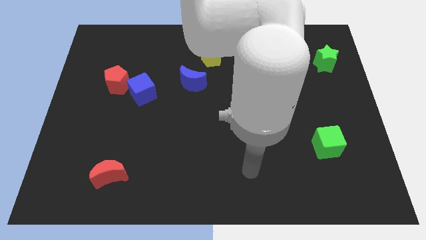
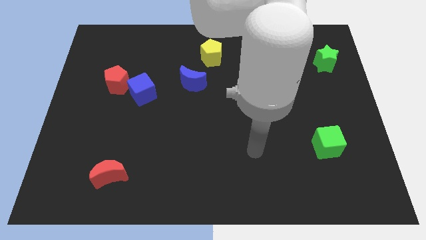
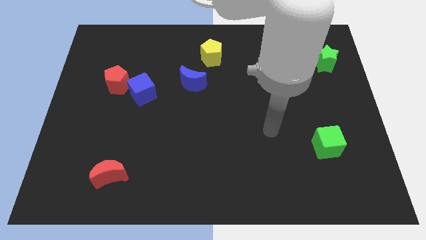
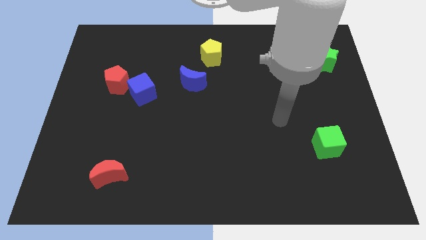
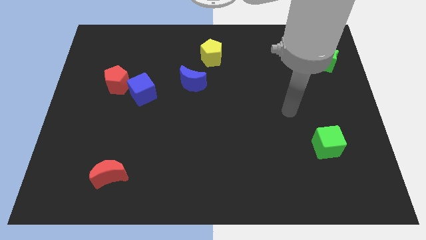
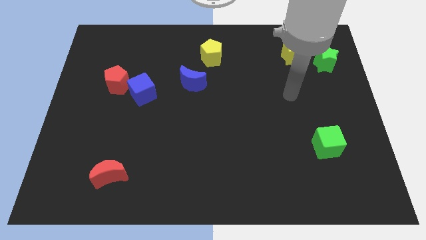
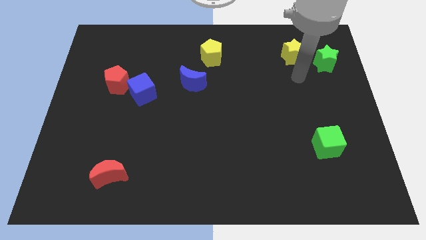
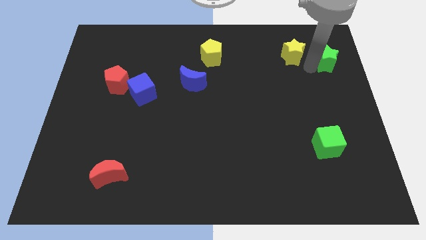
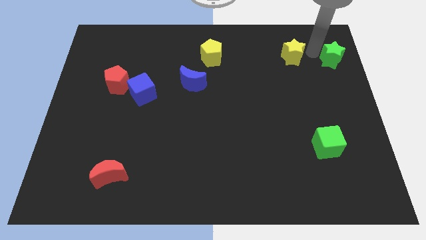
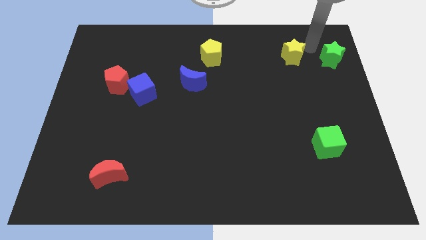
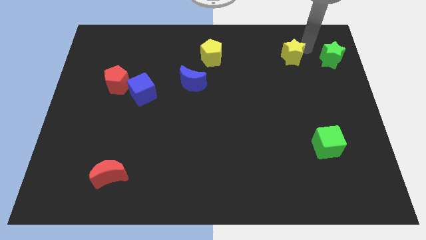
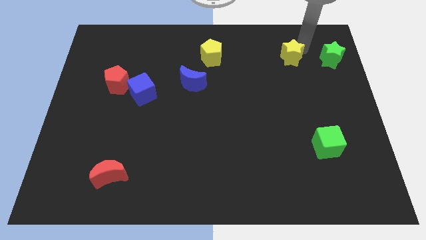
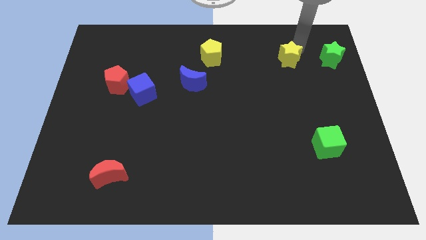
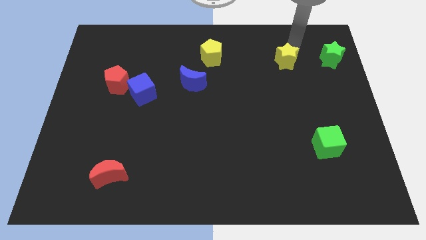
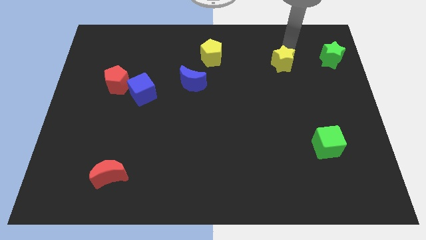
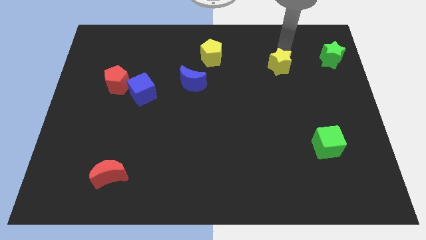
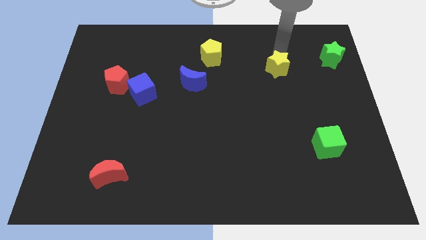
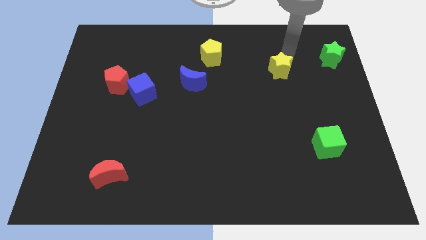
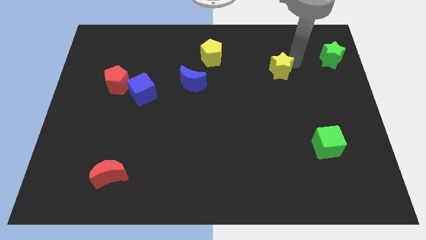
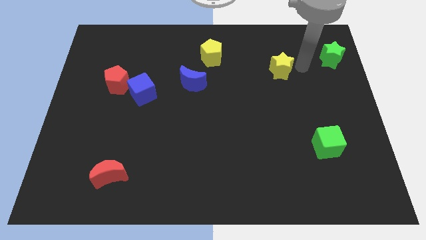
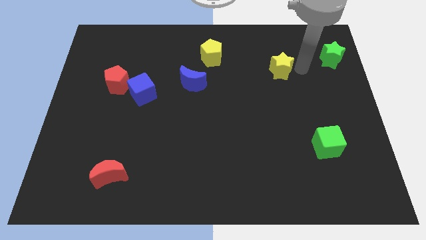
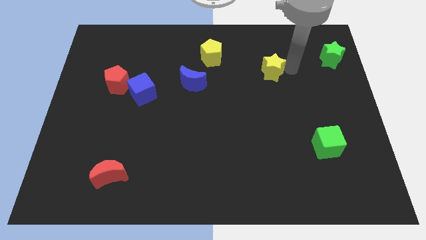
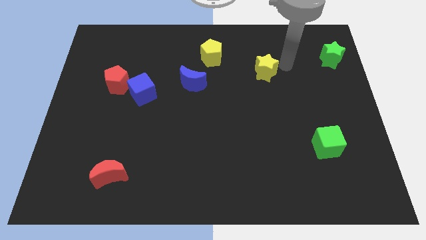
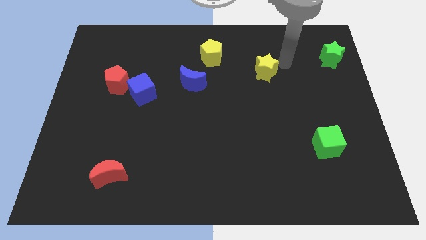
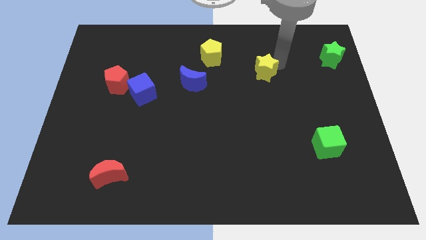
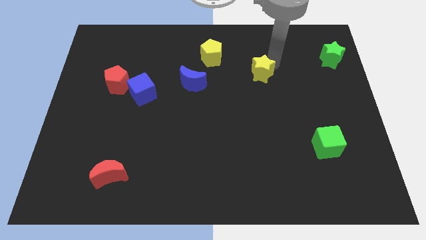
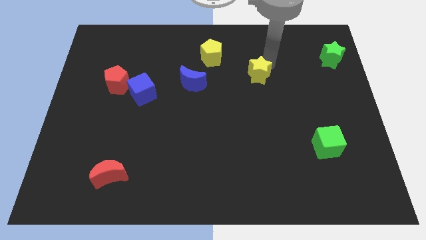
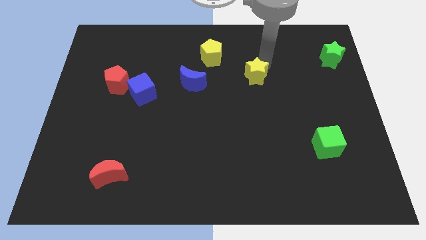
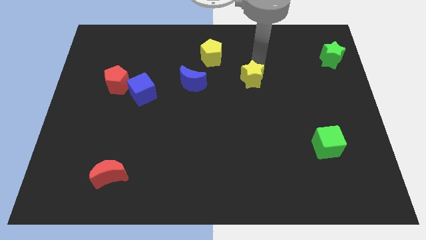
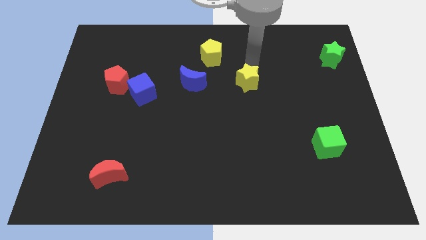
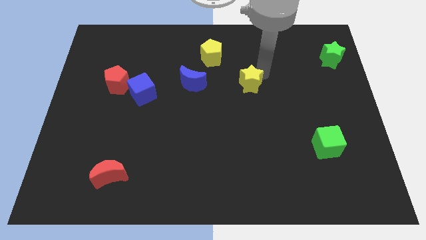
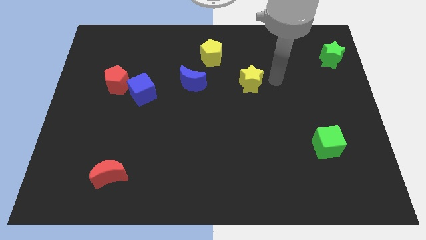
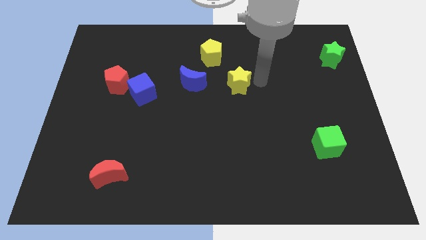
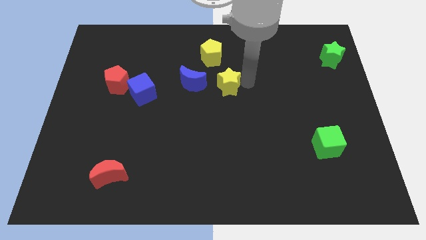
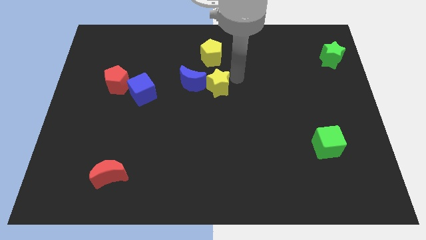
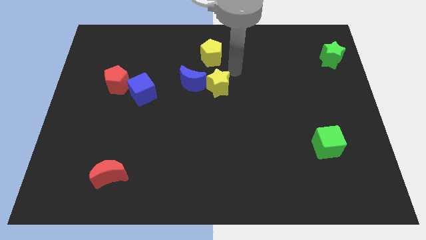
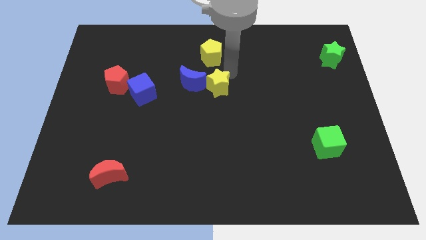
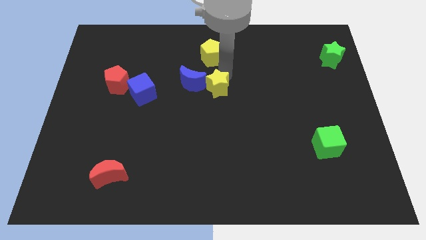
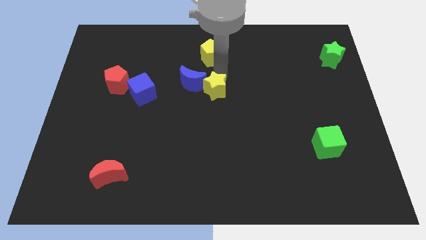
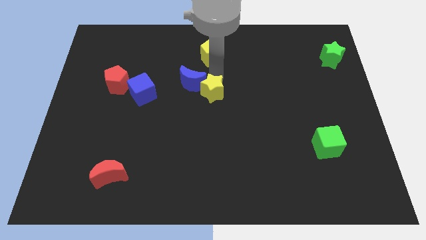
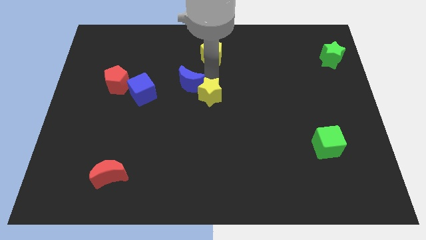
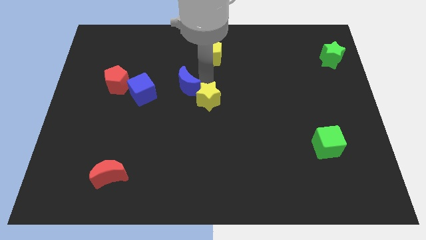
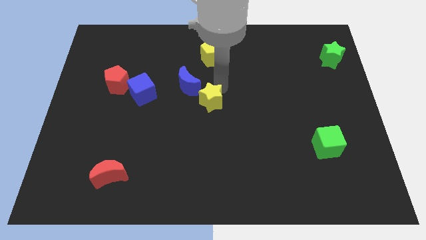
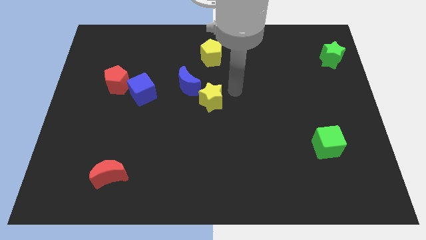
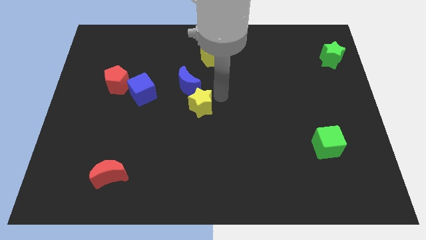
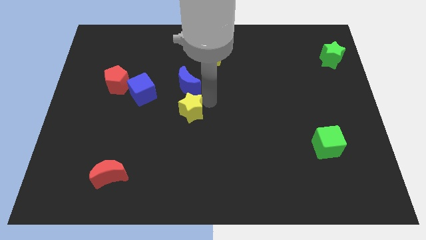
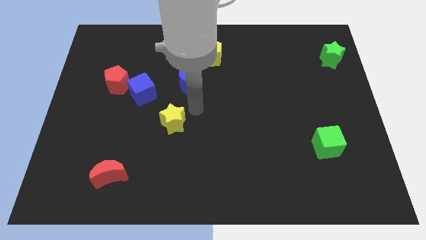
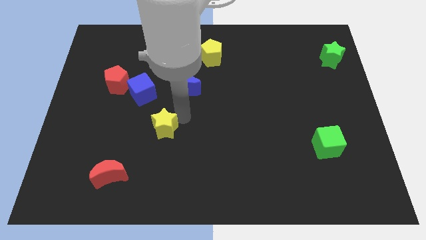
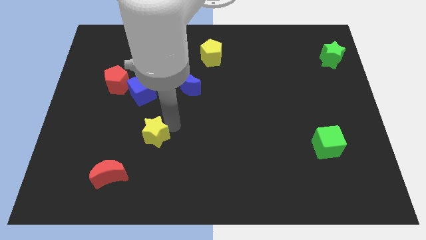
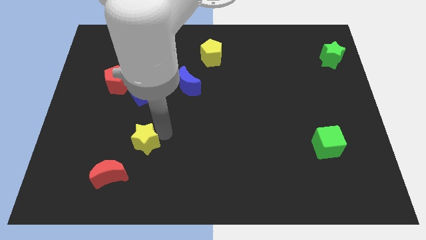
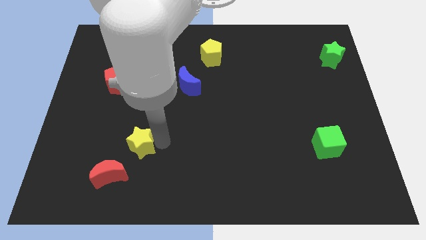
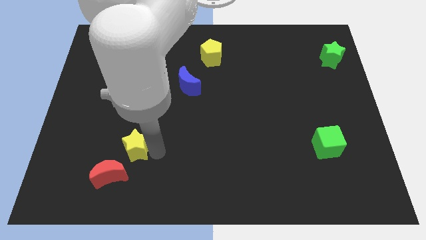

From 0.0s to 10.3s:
move the yellow star to the top of the red moon

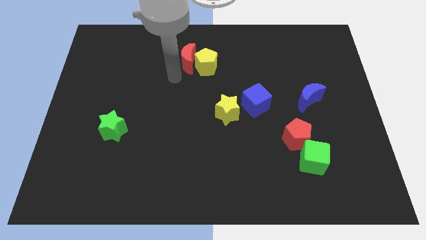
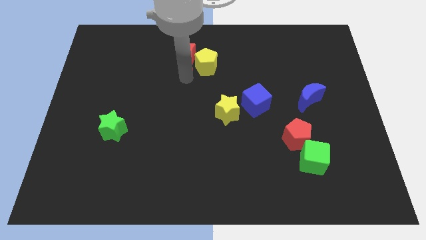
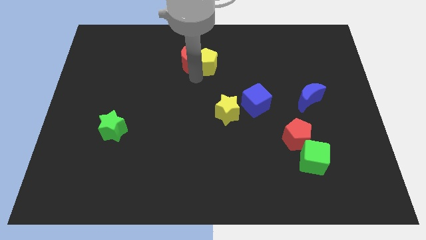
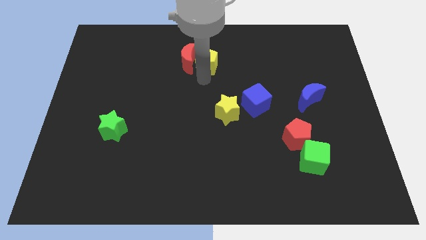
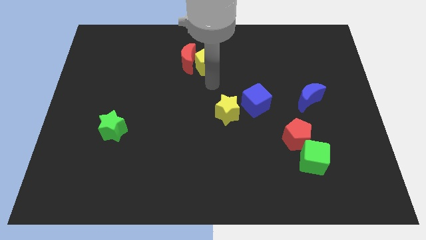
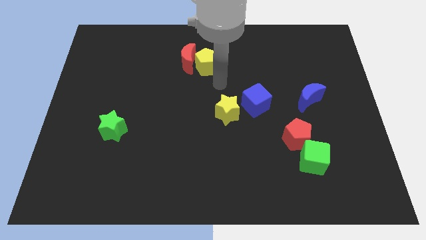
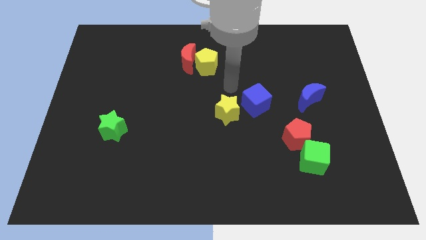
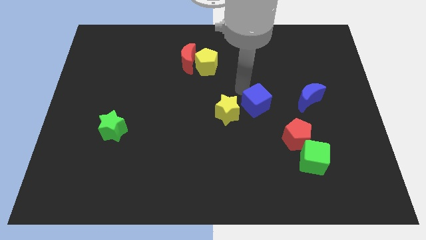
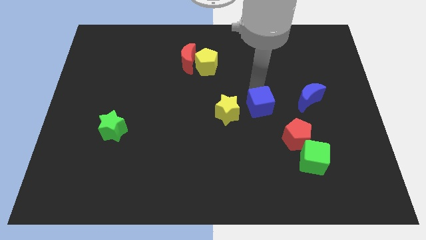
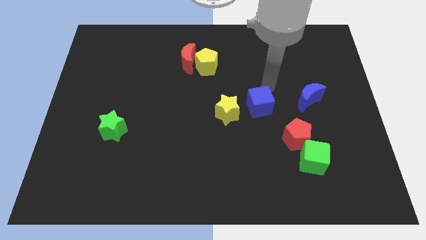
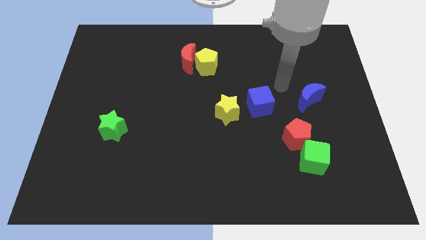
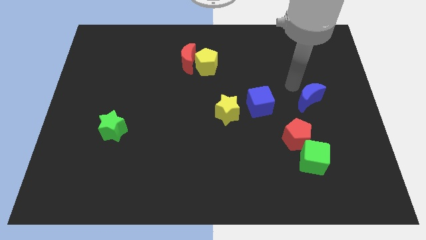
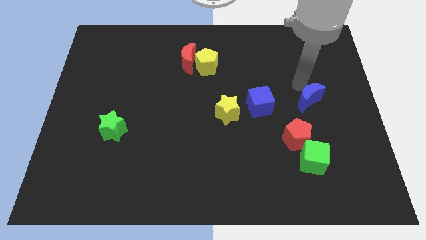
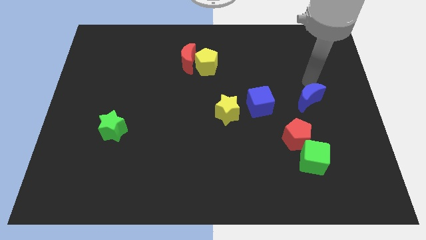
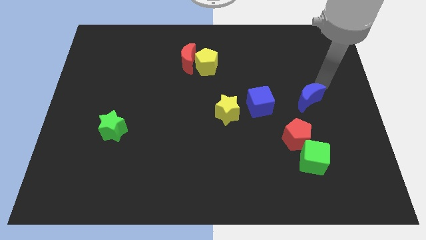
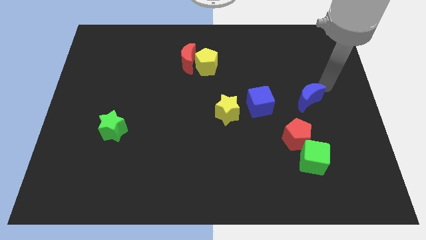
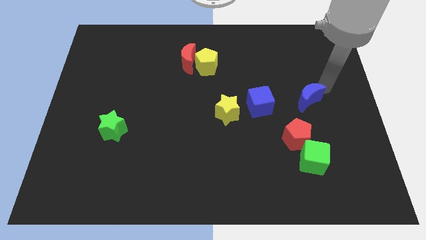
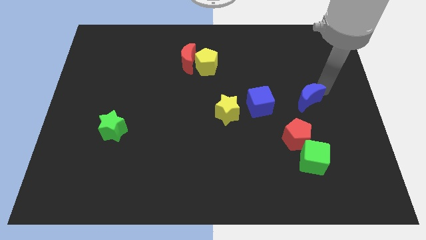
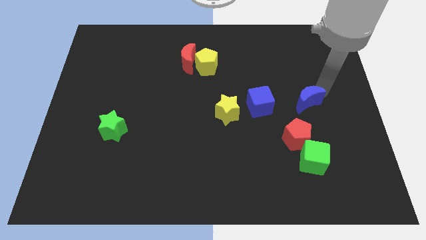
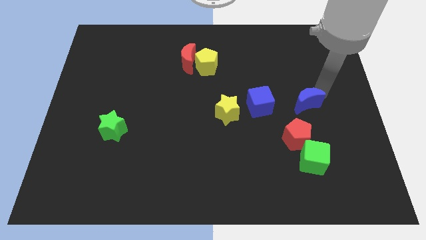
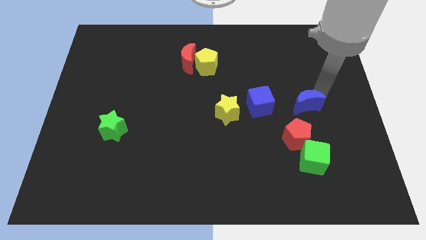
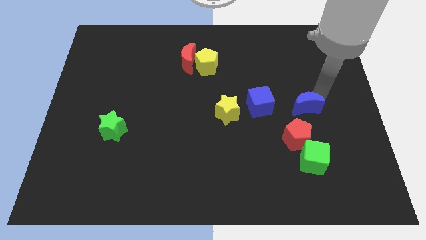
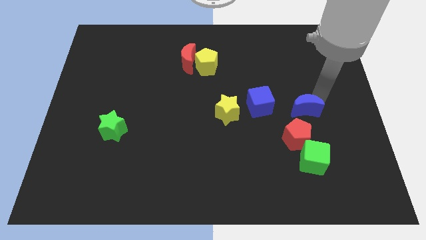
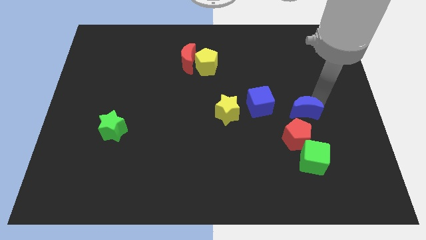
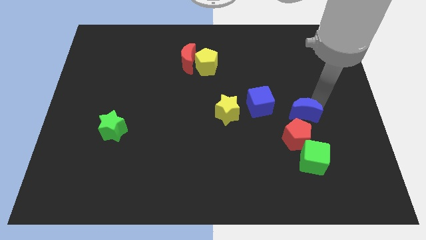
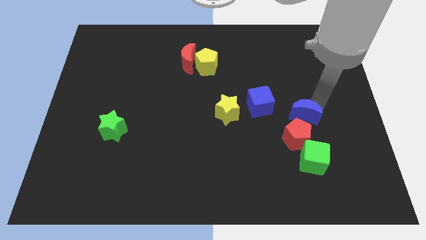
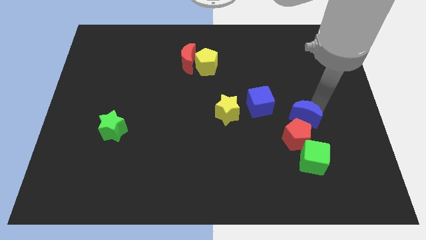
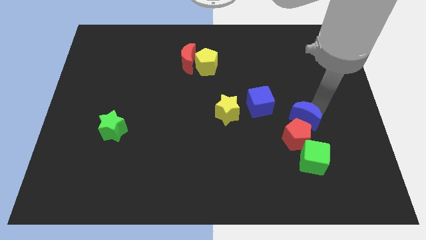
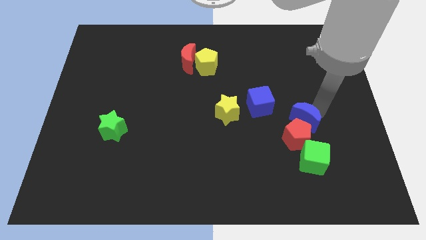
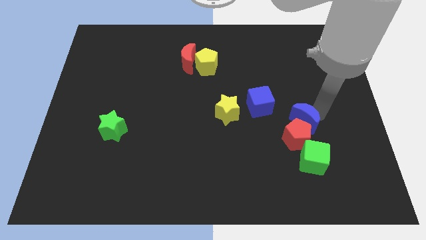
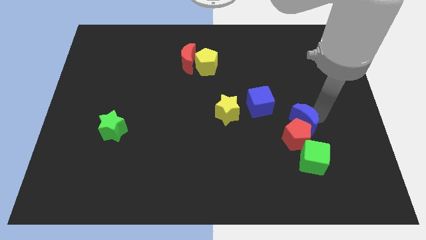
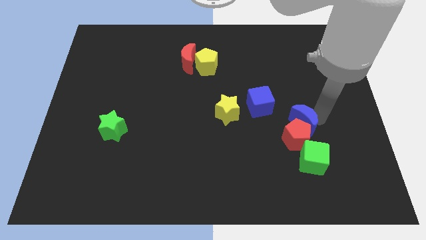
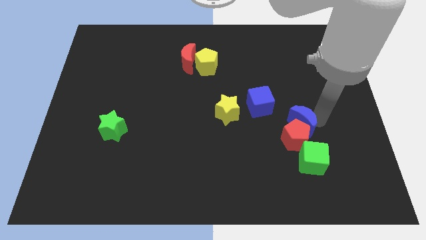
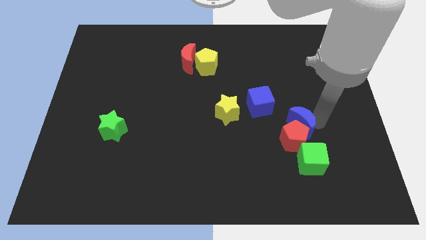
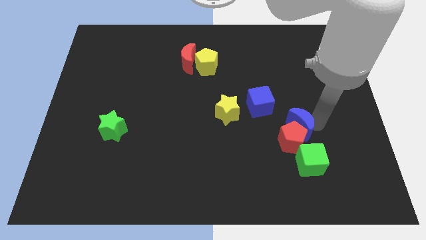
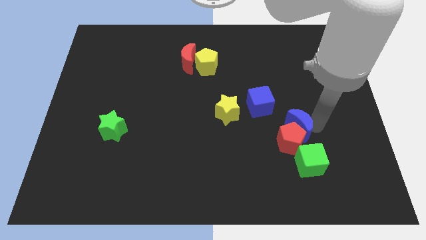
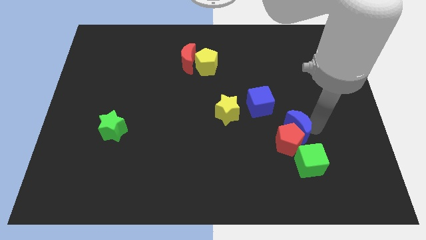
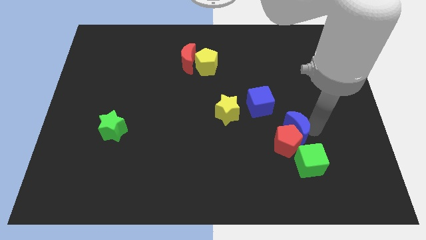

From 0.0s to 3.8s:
move the blue moon diagonally up and to the left of the green cube
